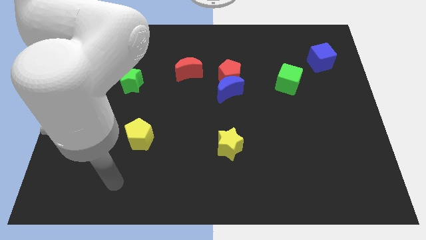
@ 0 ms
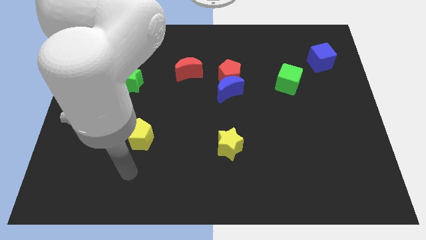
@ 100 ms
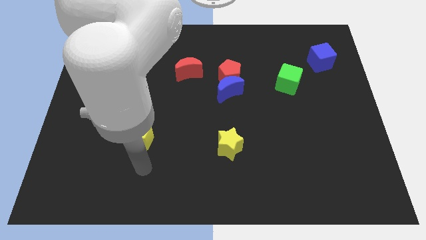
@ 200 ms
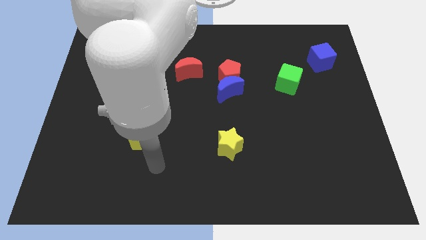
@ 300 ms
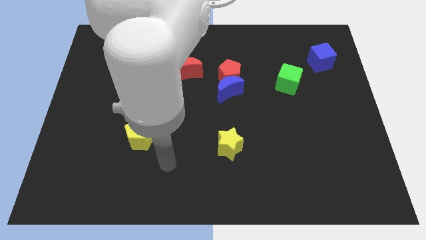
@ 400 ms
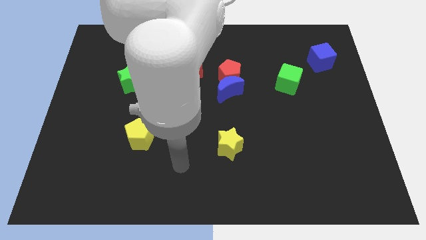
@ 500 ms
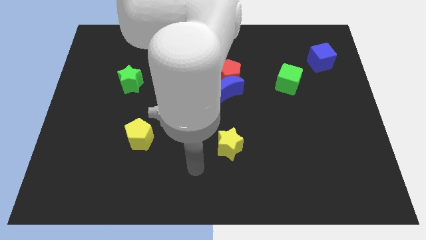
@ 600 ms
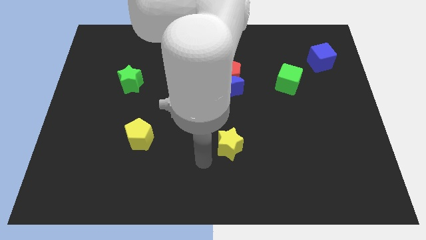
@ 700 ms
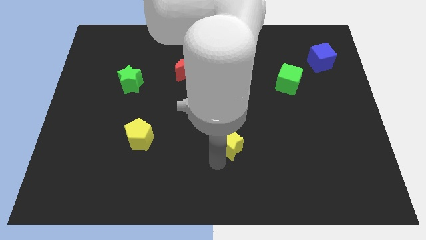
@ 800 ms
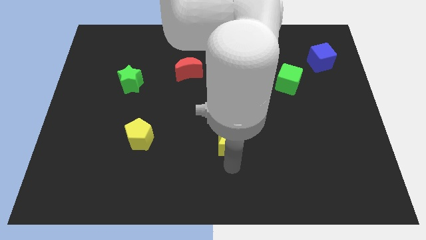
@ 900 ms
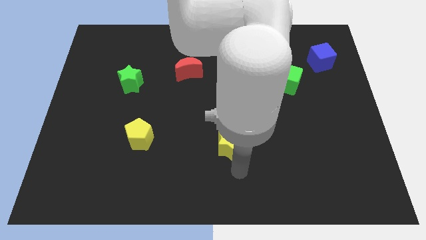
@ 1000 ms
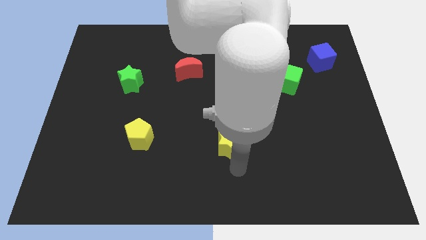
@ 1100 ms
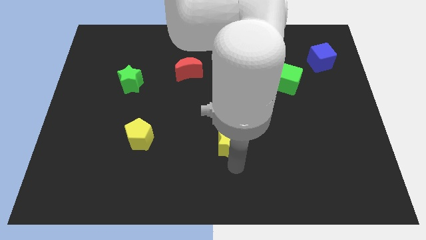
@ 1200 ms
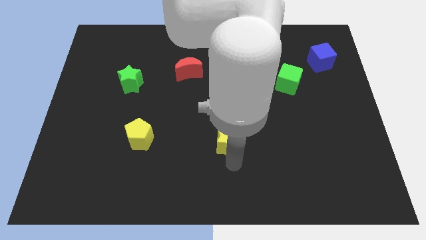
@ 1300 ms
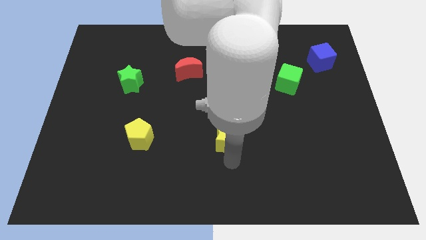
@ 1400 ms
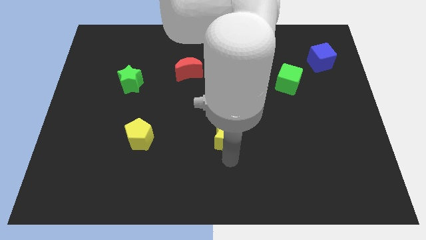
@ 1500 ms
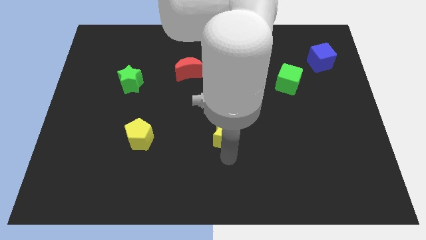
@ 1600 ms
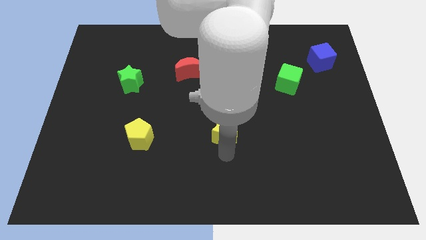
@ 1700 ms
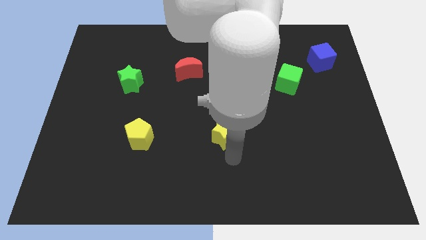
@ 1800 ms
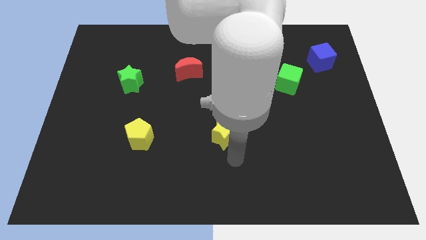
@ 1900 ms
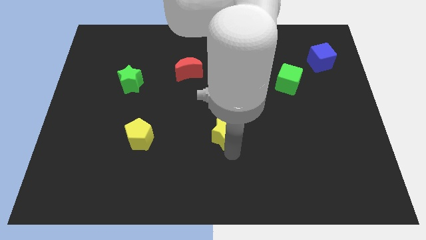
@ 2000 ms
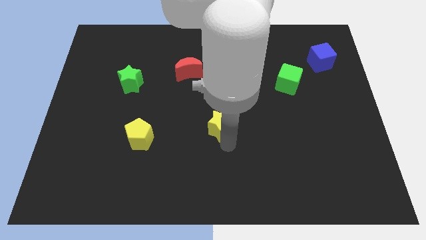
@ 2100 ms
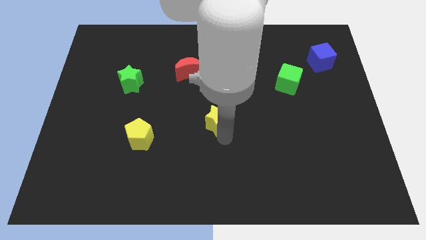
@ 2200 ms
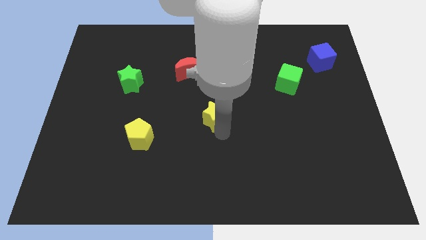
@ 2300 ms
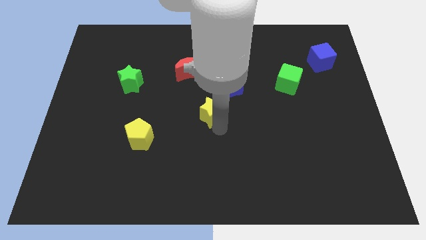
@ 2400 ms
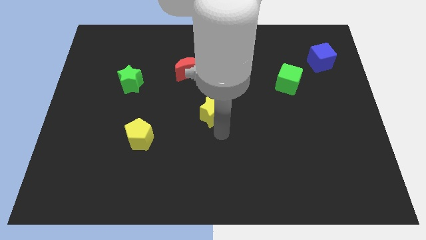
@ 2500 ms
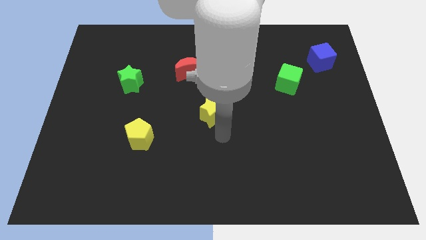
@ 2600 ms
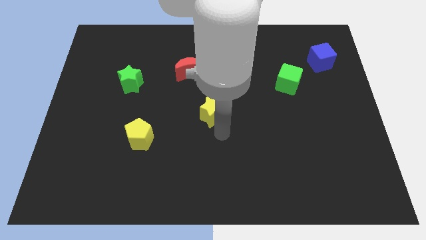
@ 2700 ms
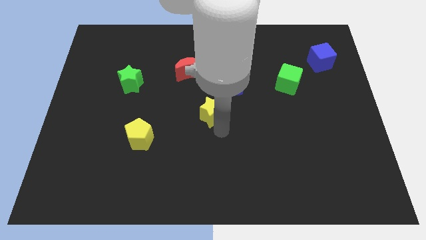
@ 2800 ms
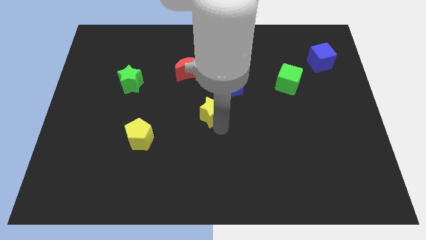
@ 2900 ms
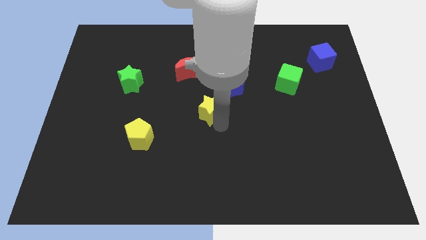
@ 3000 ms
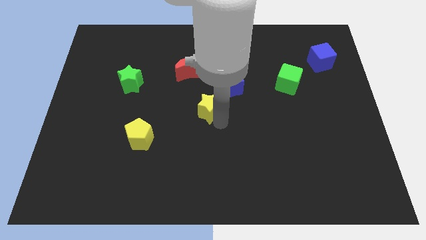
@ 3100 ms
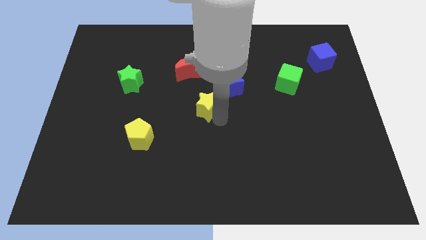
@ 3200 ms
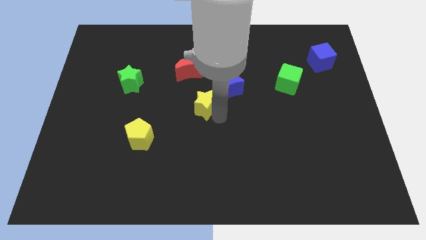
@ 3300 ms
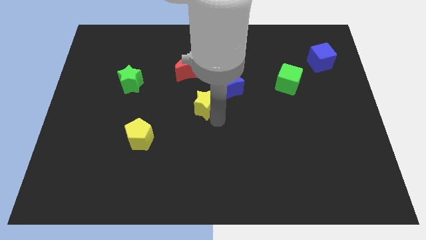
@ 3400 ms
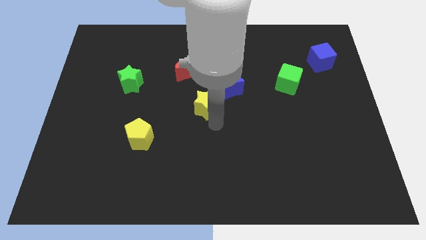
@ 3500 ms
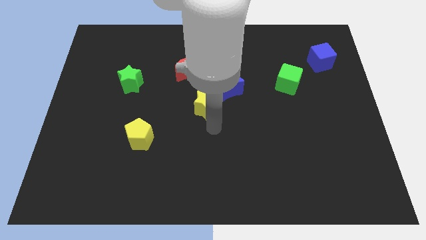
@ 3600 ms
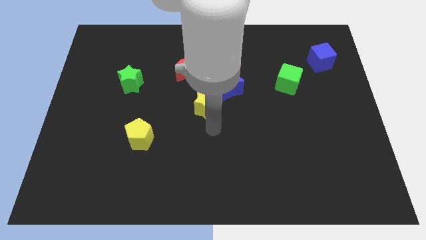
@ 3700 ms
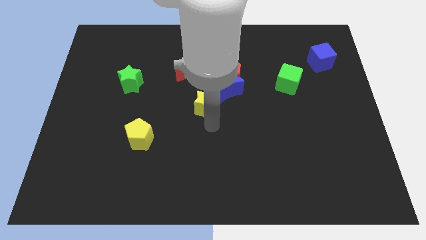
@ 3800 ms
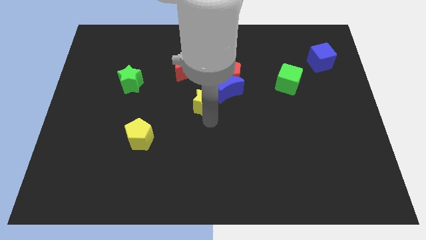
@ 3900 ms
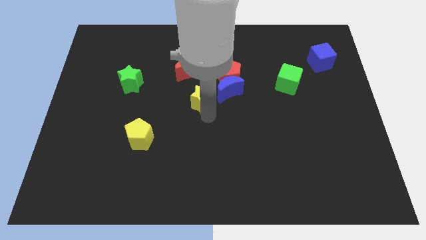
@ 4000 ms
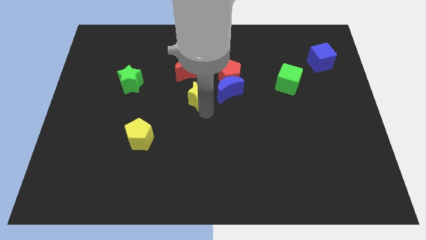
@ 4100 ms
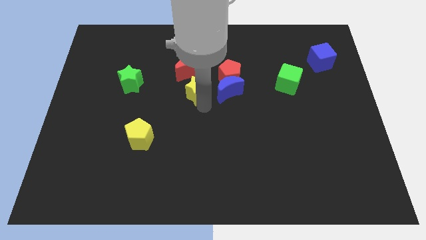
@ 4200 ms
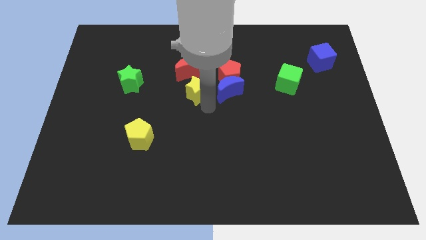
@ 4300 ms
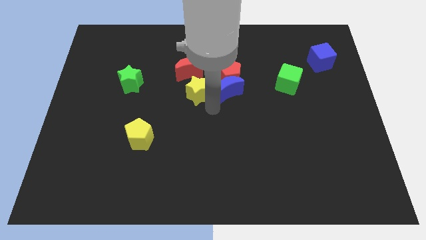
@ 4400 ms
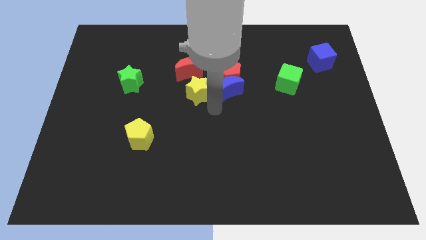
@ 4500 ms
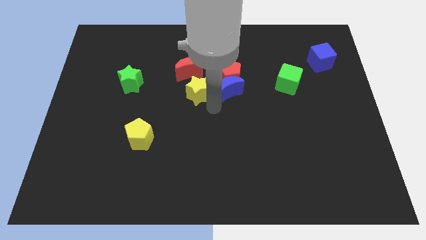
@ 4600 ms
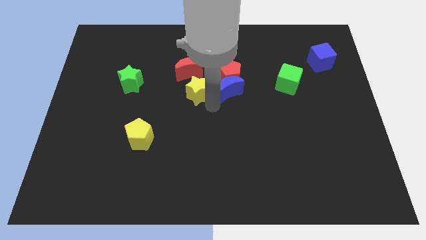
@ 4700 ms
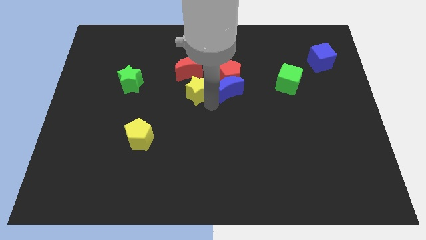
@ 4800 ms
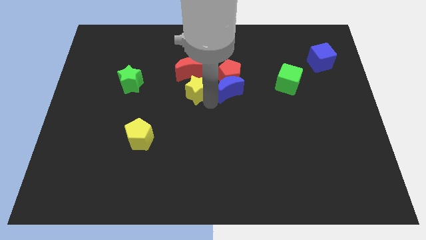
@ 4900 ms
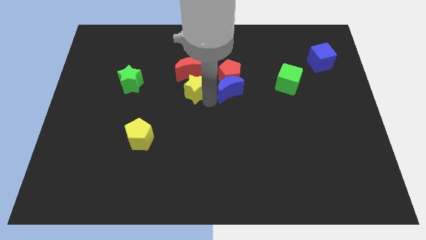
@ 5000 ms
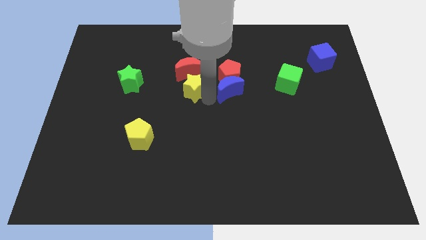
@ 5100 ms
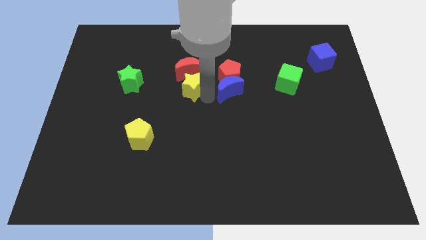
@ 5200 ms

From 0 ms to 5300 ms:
put the yellow star to the red moon

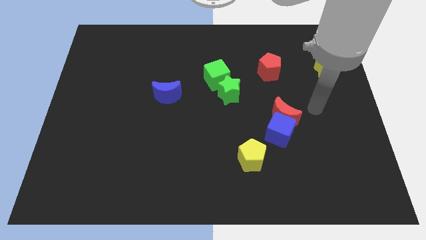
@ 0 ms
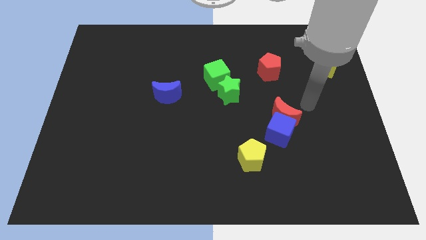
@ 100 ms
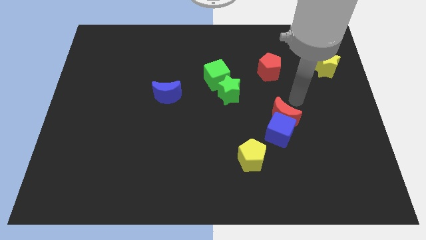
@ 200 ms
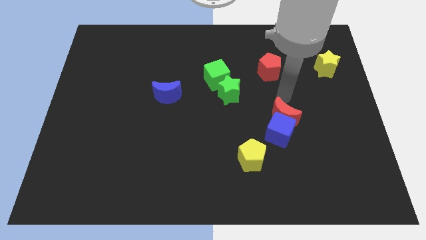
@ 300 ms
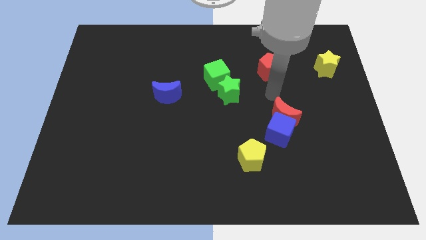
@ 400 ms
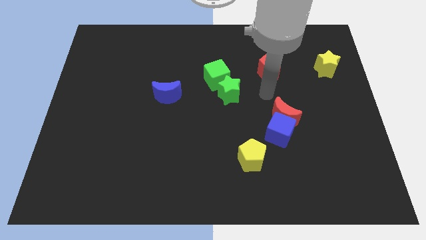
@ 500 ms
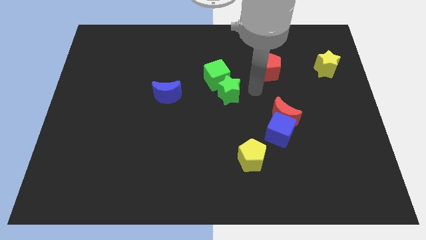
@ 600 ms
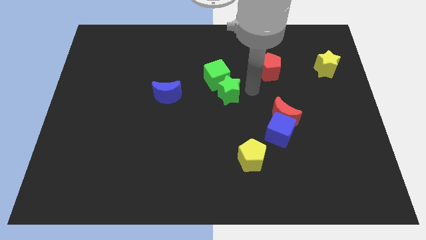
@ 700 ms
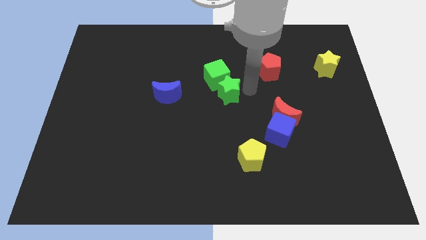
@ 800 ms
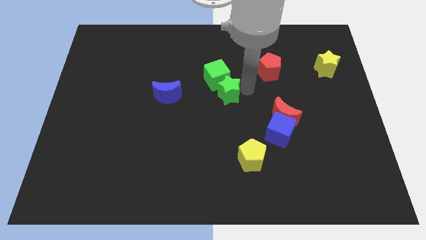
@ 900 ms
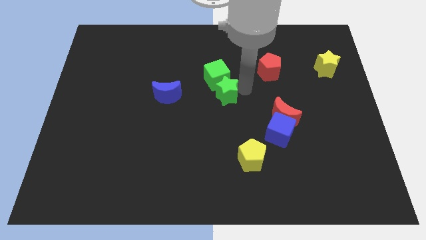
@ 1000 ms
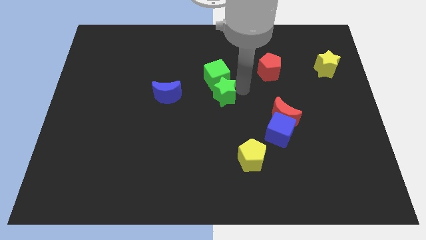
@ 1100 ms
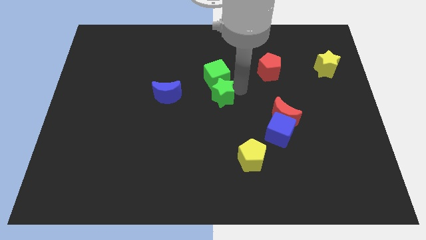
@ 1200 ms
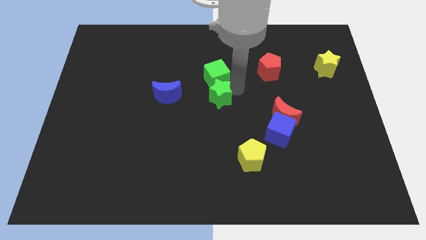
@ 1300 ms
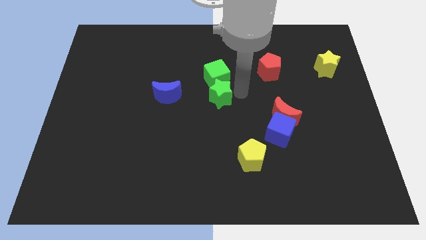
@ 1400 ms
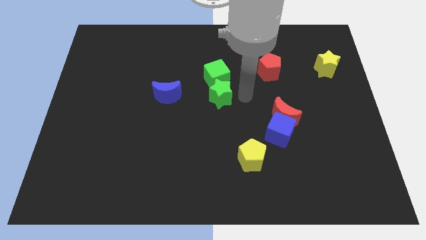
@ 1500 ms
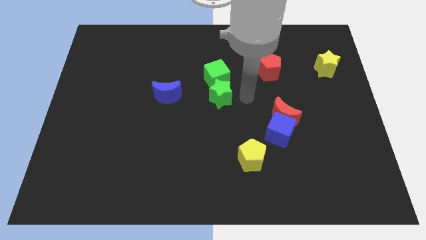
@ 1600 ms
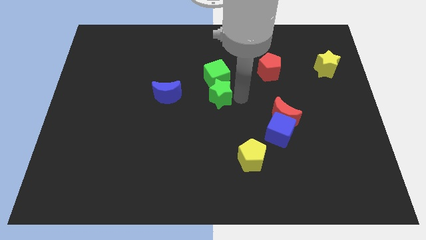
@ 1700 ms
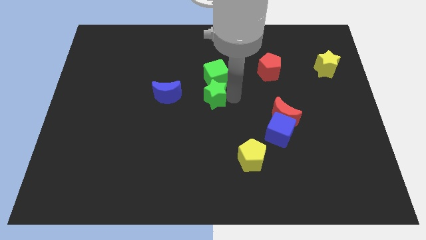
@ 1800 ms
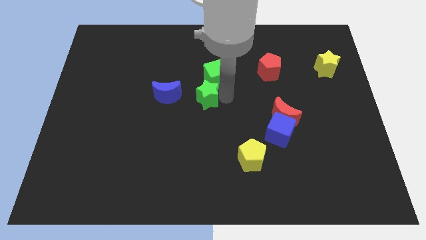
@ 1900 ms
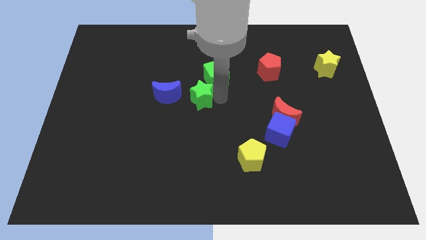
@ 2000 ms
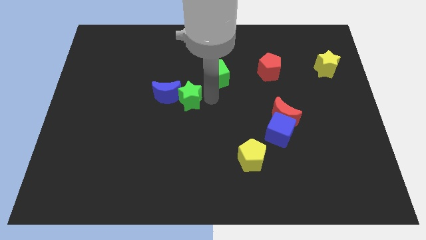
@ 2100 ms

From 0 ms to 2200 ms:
push the green star to the blue moon
